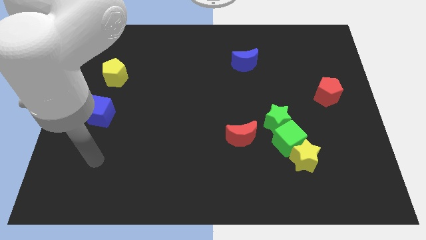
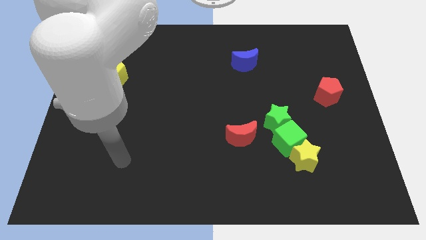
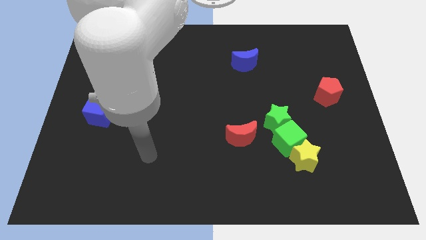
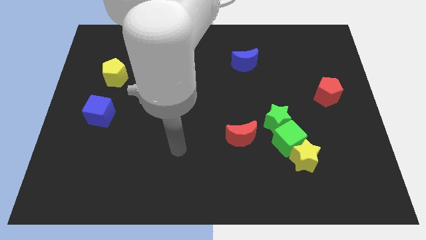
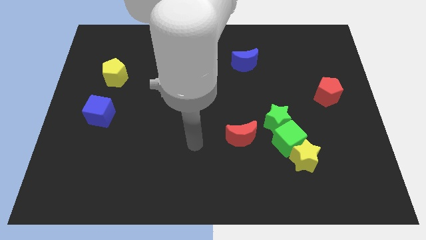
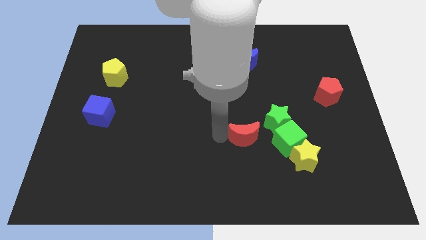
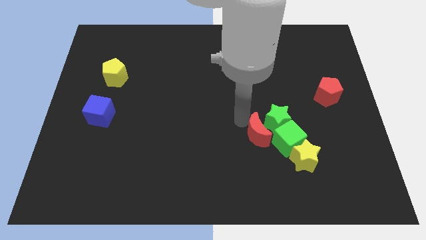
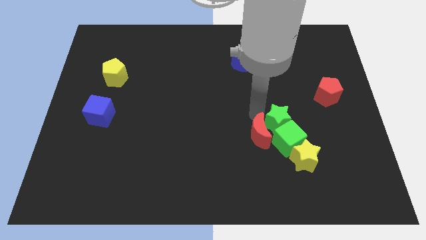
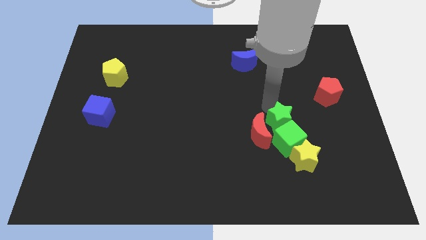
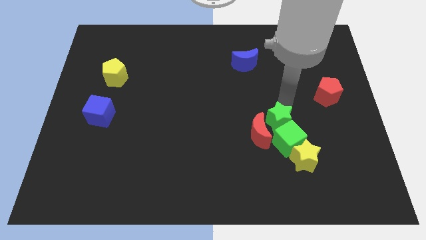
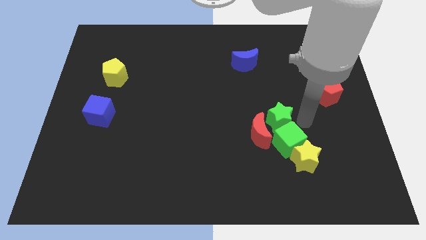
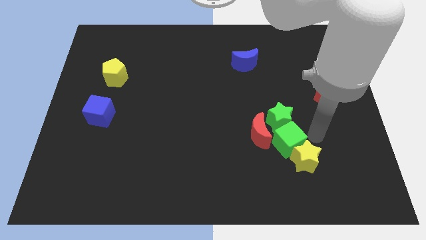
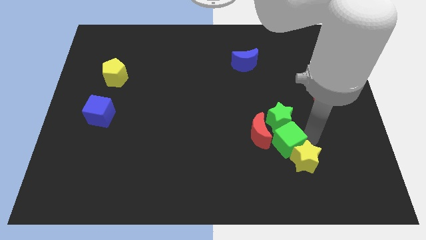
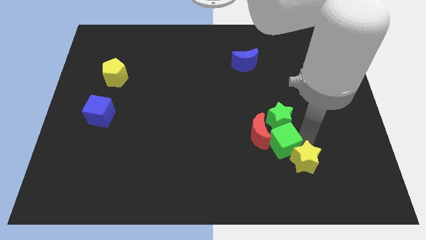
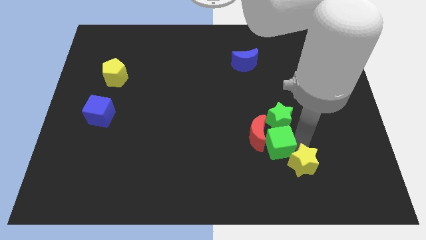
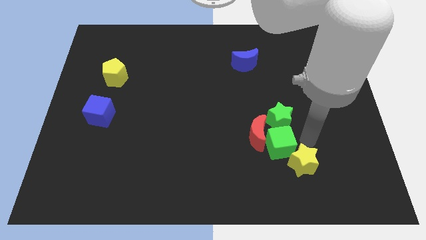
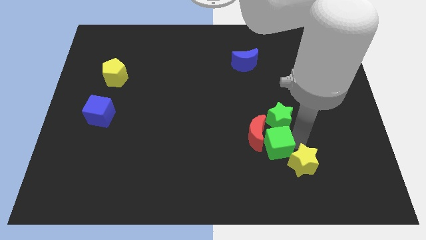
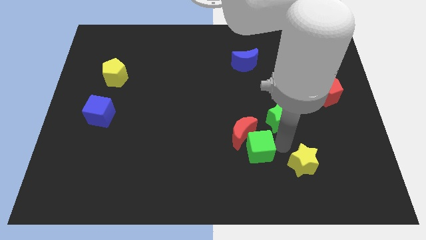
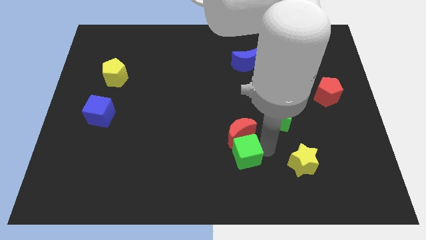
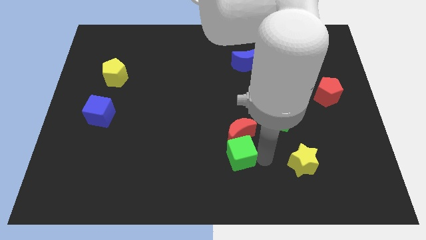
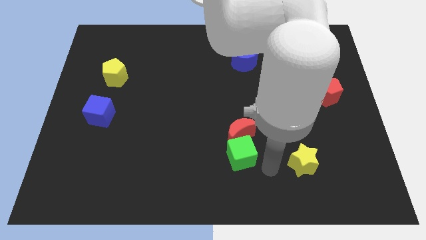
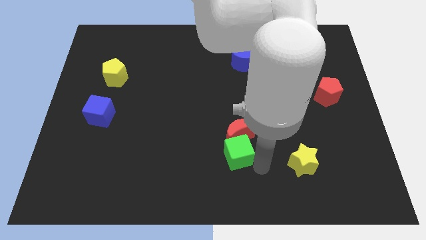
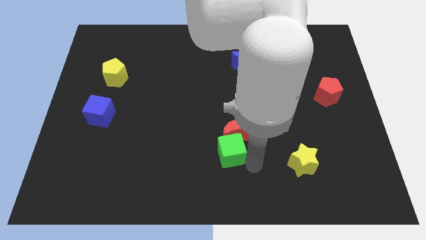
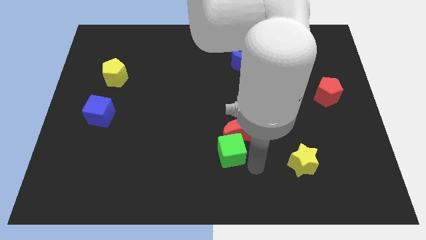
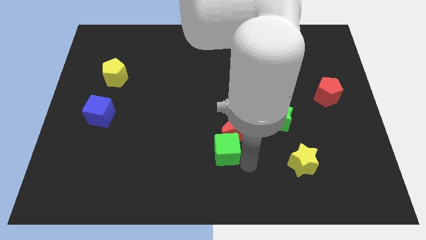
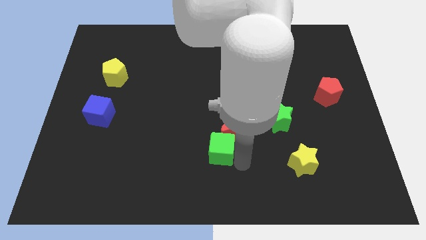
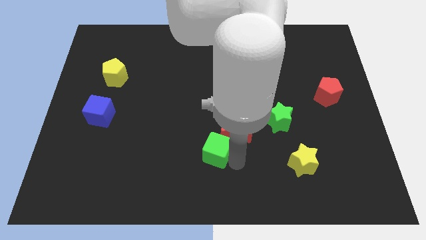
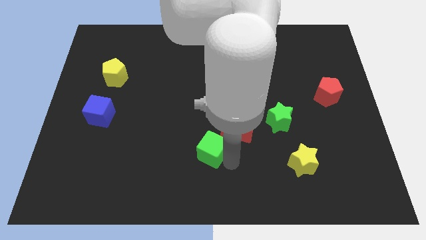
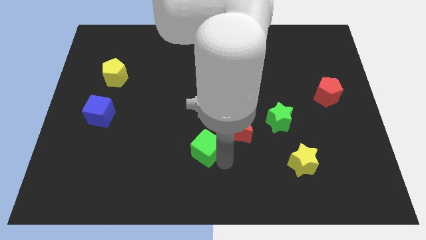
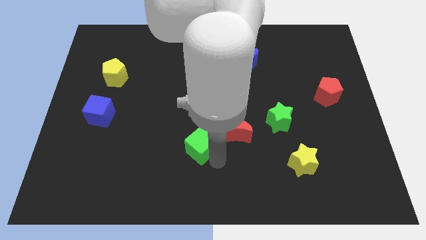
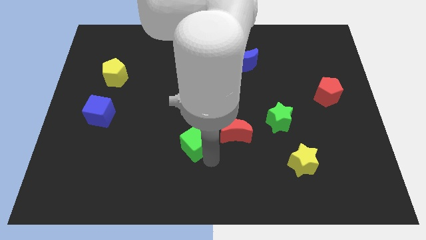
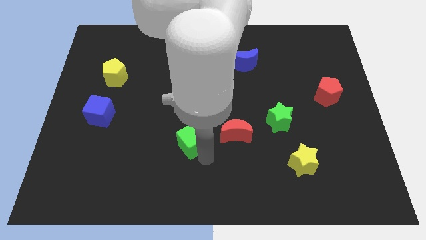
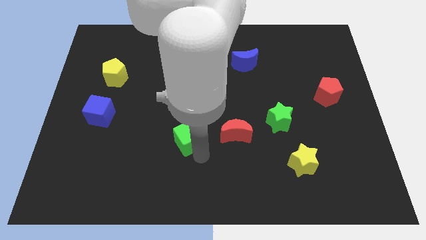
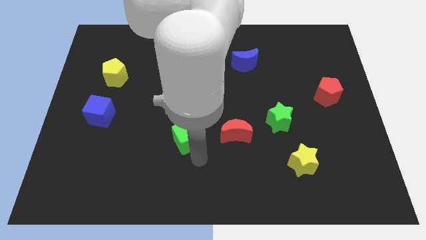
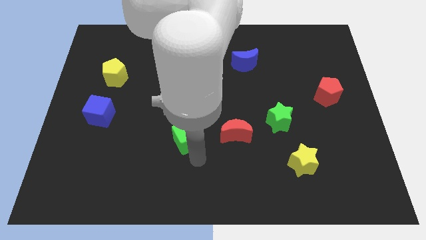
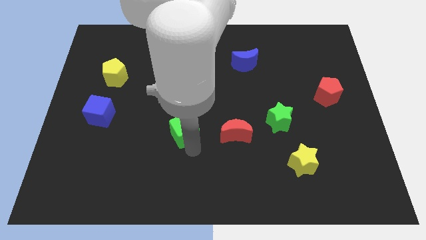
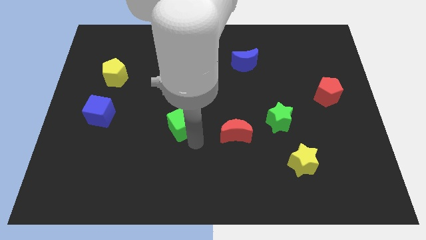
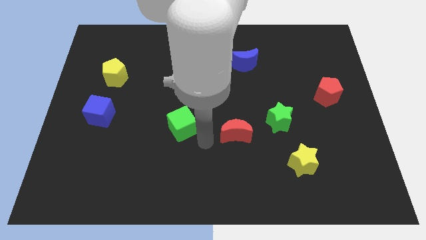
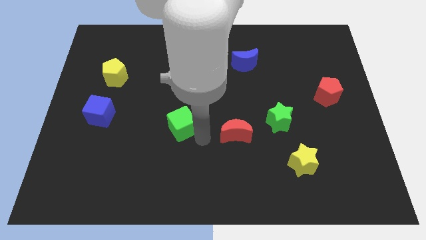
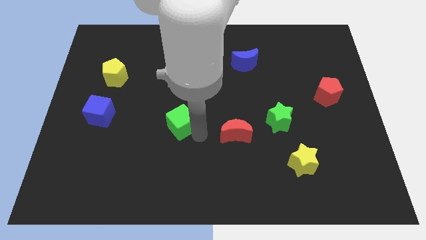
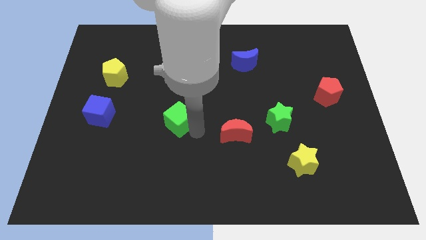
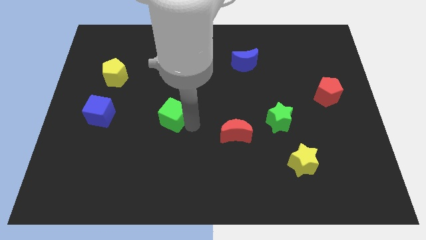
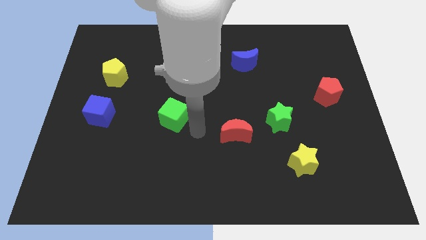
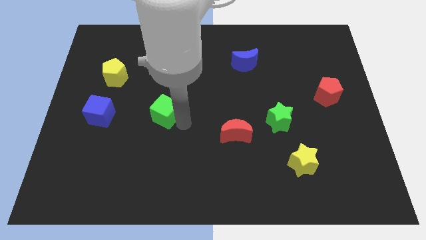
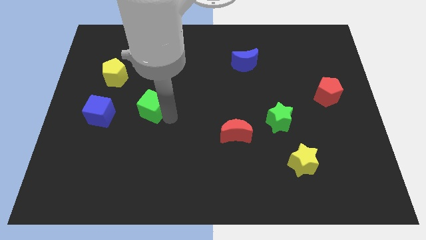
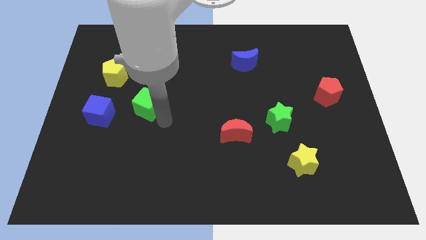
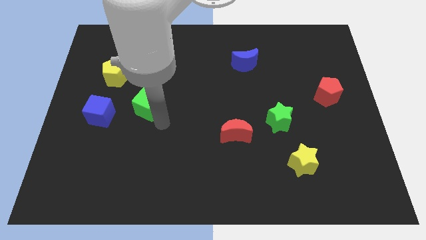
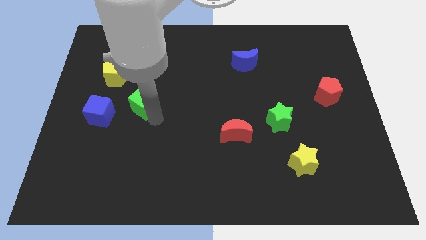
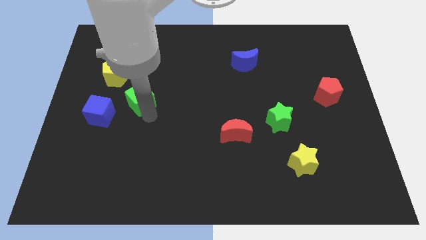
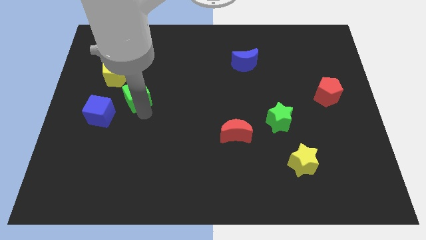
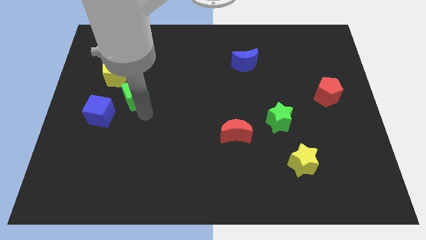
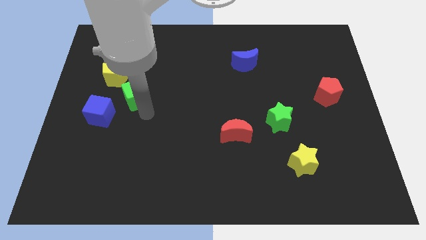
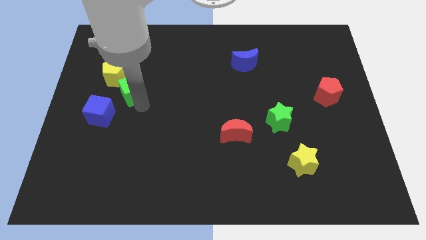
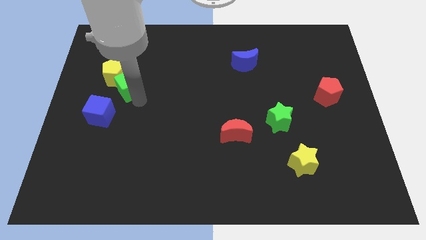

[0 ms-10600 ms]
move the green cube close to the yellow pentagon

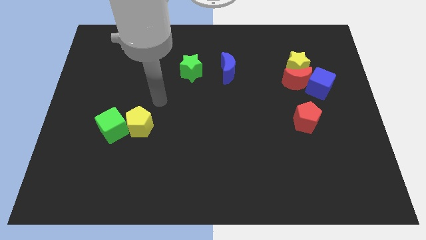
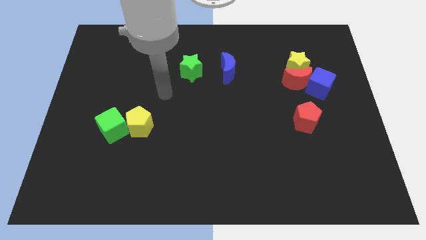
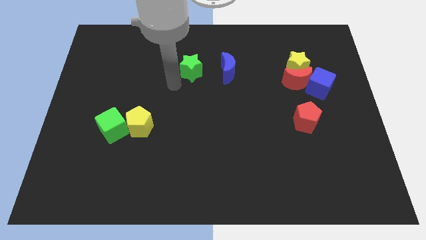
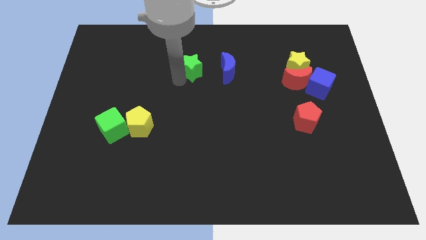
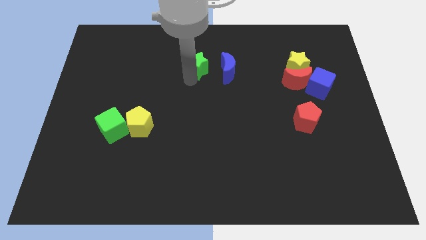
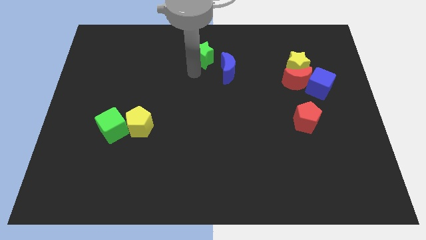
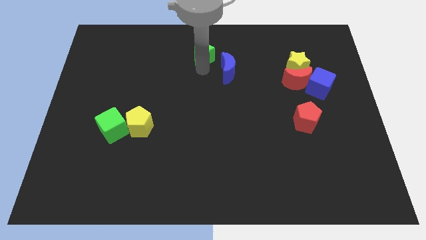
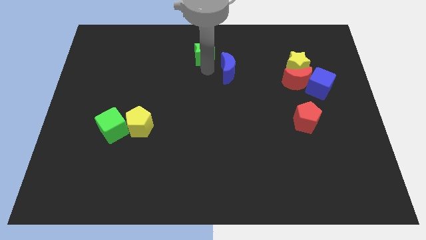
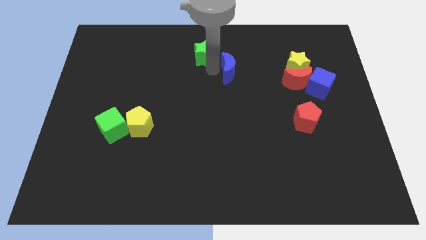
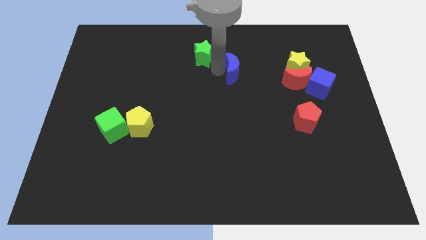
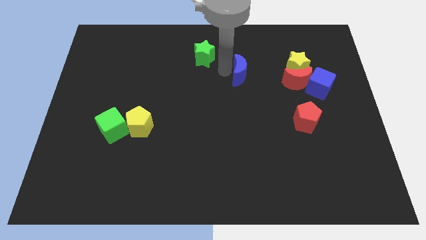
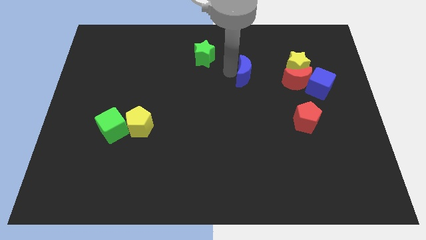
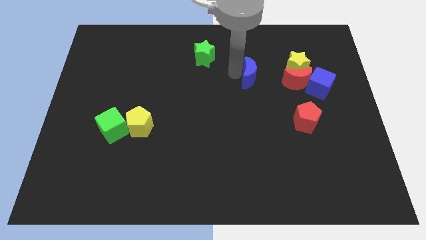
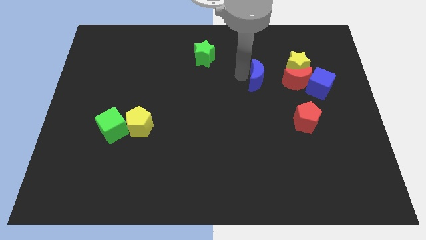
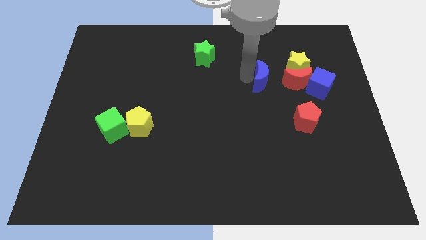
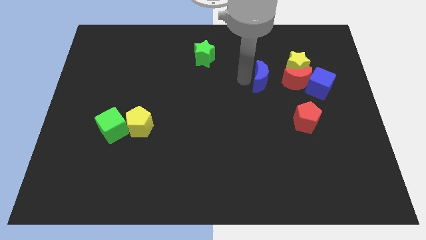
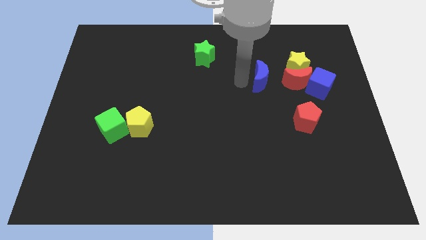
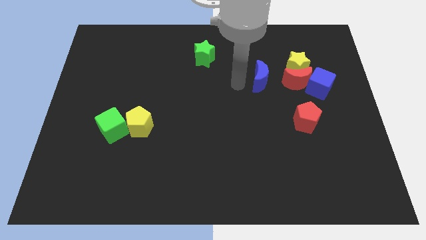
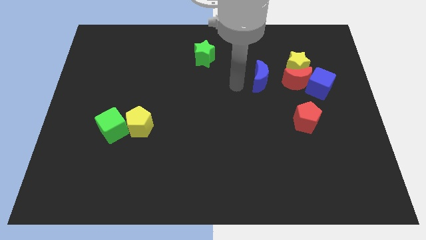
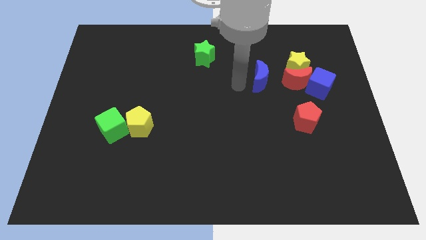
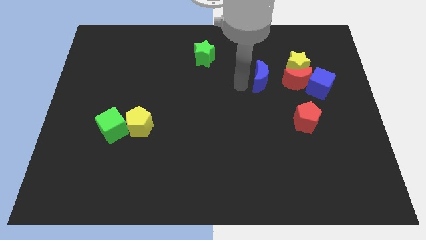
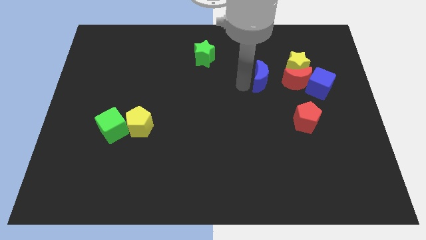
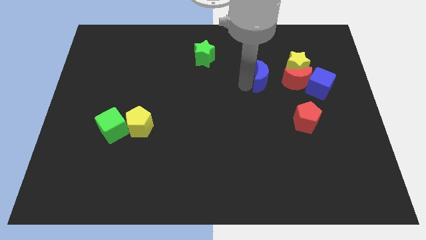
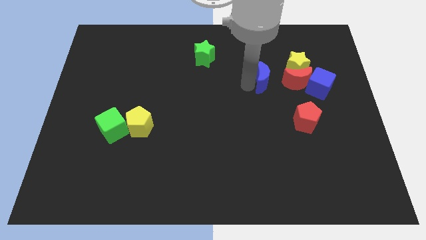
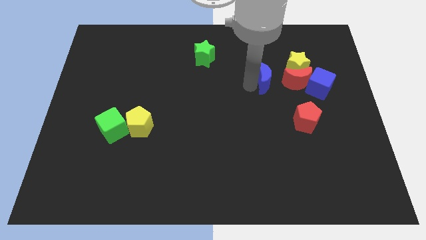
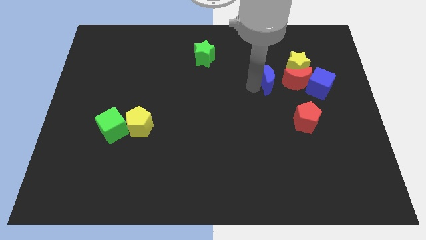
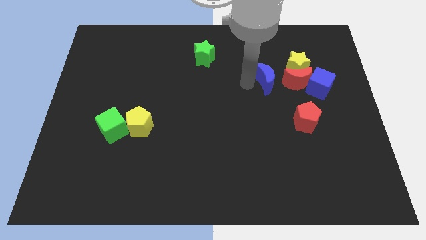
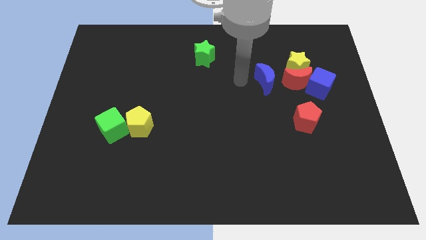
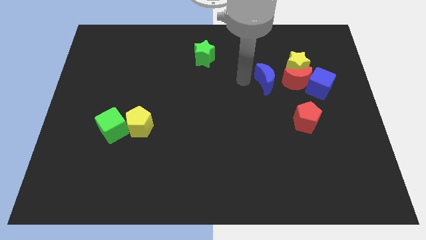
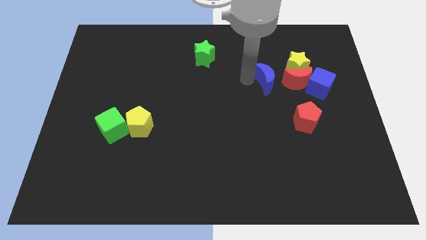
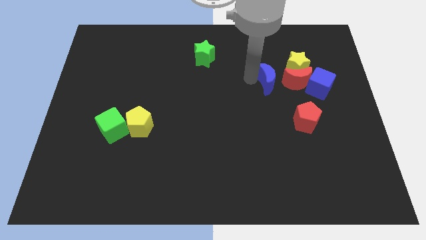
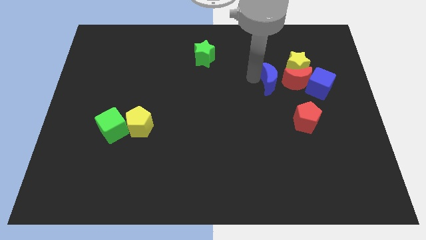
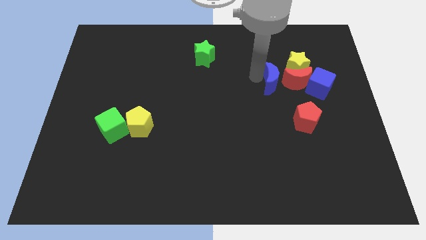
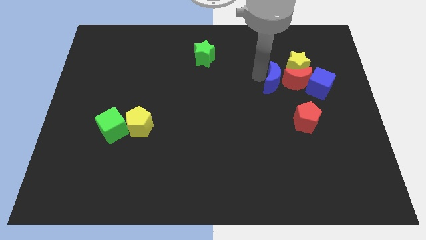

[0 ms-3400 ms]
slide the blue moon close to the red moon
